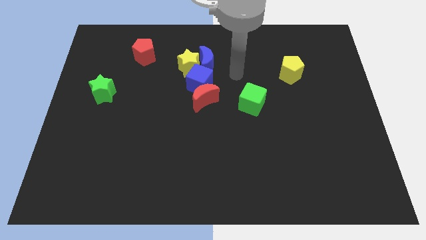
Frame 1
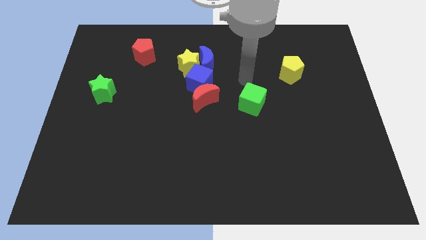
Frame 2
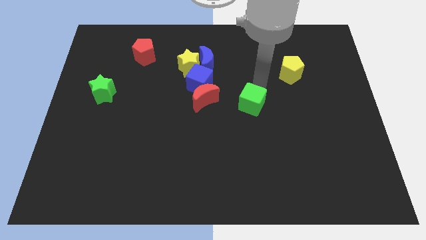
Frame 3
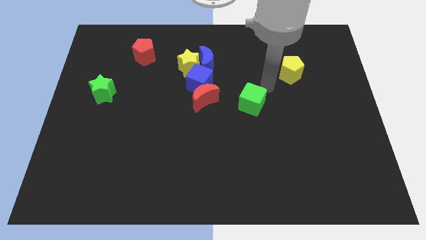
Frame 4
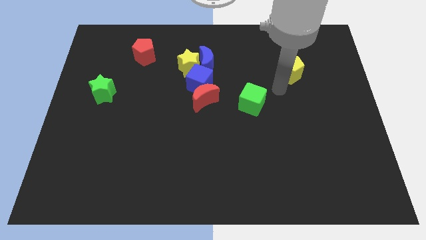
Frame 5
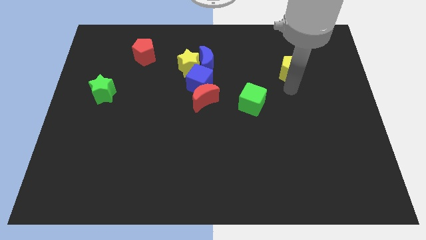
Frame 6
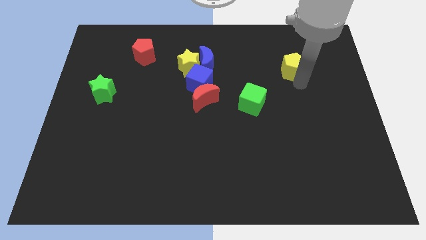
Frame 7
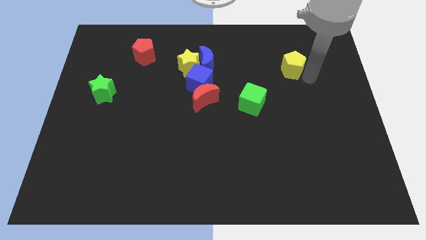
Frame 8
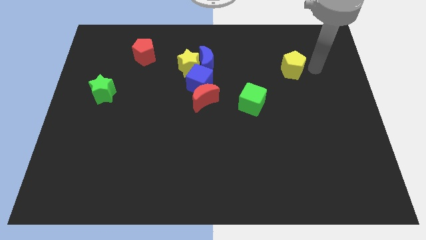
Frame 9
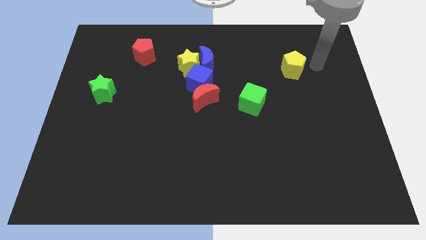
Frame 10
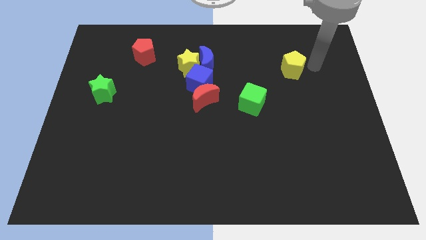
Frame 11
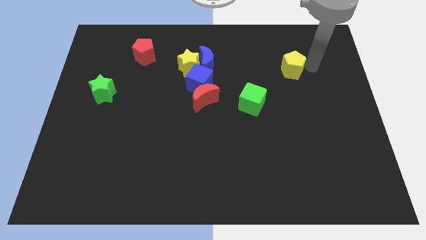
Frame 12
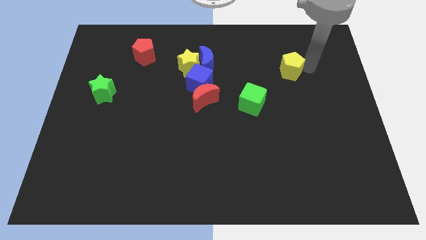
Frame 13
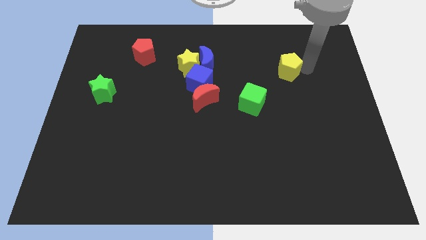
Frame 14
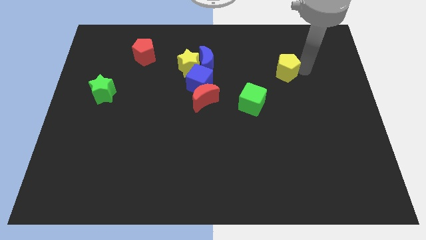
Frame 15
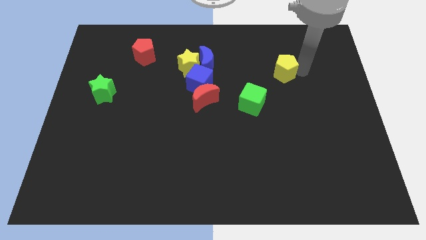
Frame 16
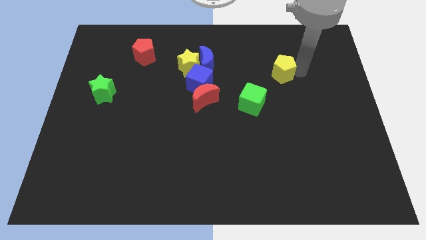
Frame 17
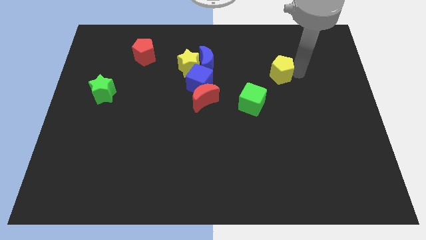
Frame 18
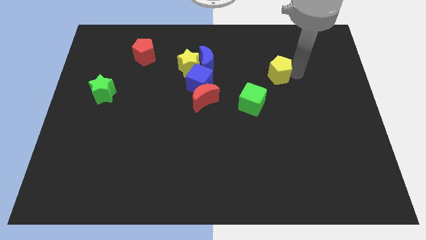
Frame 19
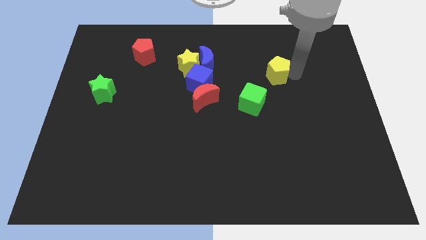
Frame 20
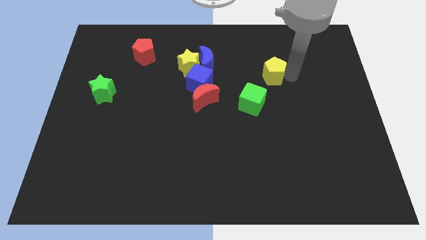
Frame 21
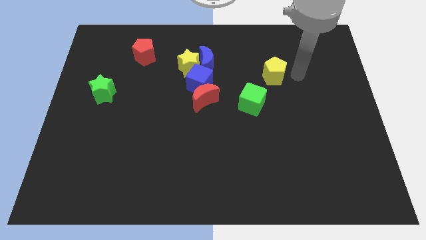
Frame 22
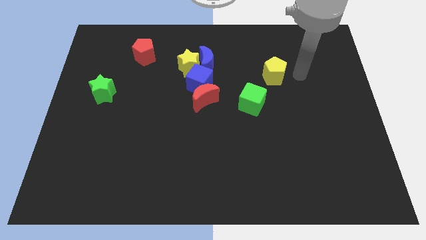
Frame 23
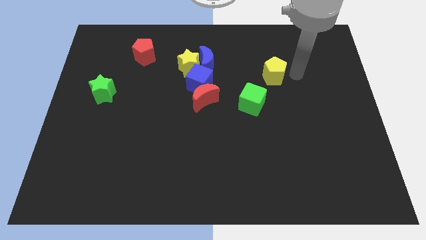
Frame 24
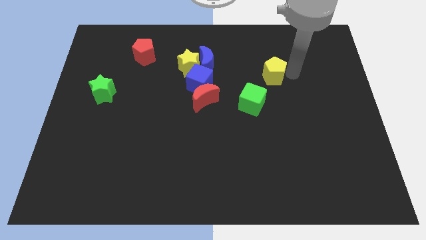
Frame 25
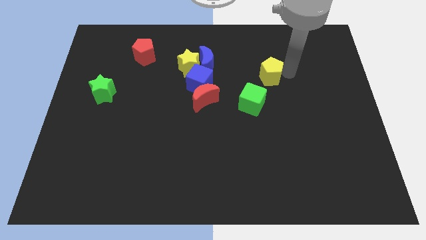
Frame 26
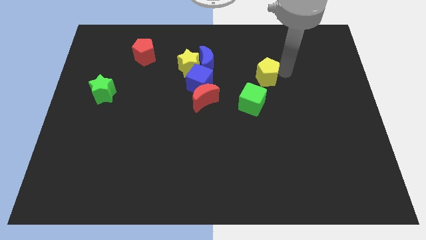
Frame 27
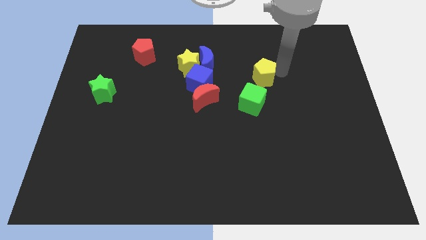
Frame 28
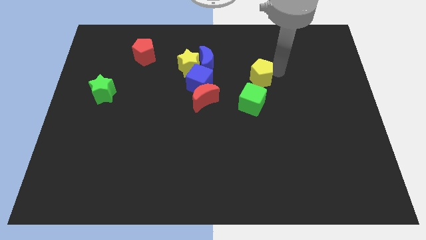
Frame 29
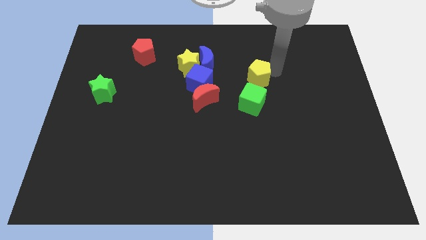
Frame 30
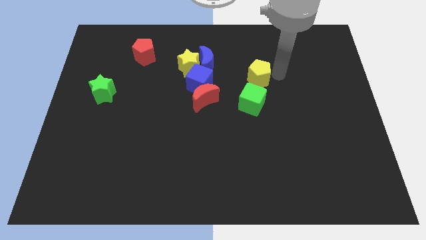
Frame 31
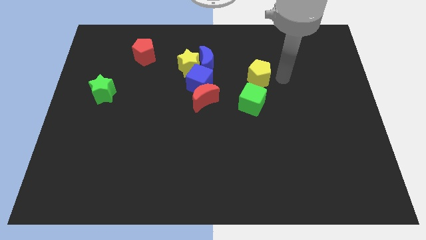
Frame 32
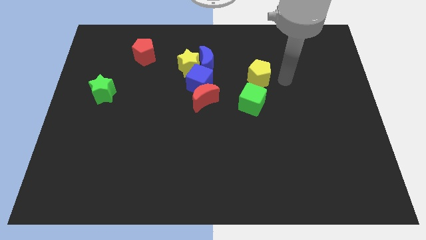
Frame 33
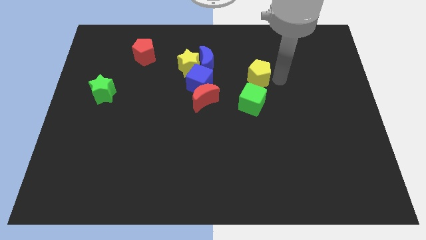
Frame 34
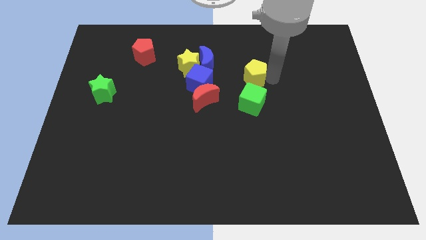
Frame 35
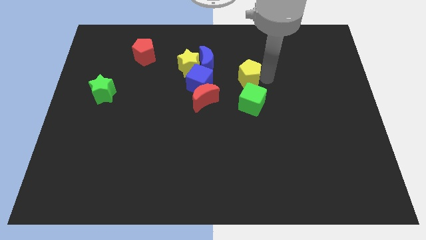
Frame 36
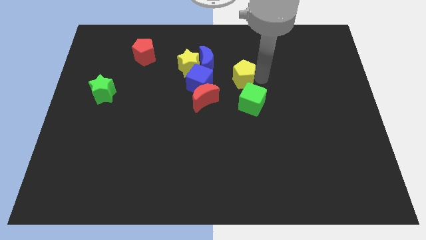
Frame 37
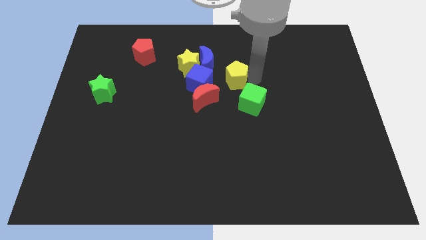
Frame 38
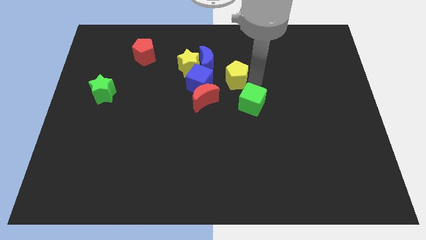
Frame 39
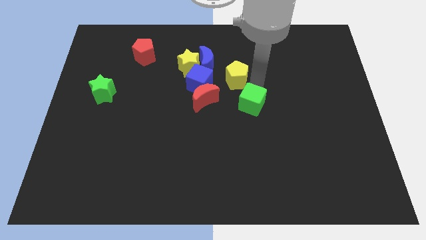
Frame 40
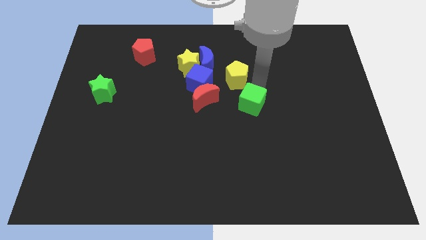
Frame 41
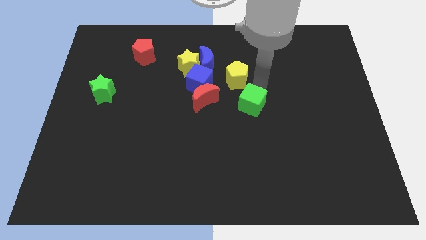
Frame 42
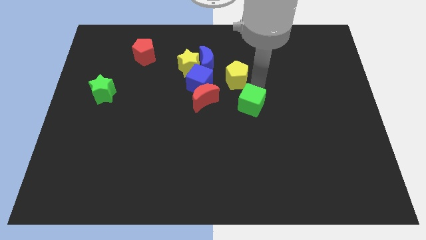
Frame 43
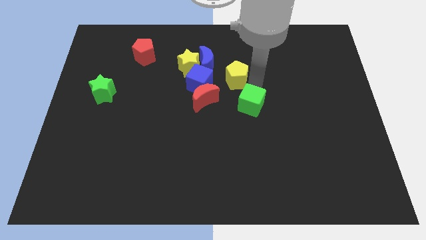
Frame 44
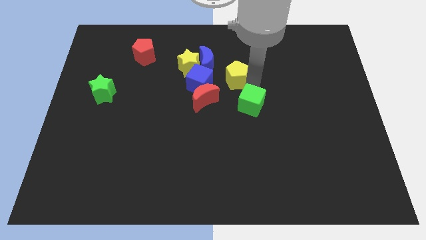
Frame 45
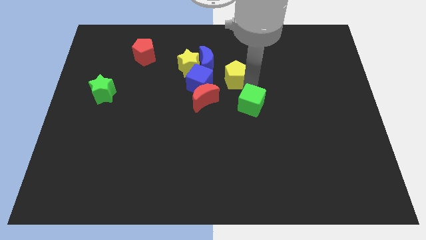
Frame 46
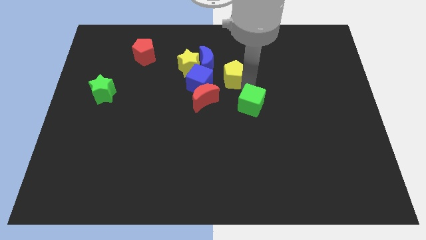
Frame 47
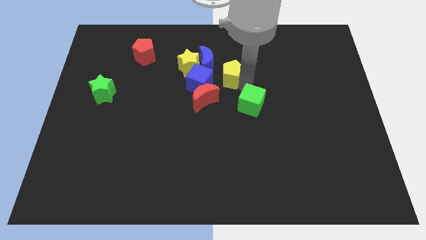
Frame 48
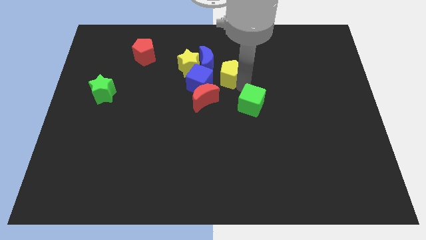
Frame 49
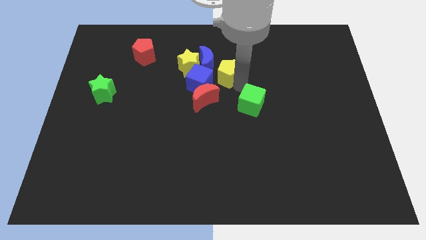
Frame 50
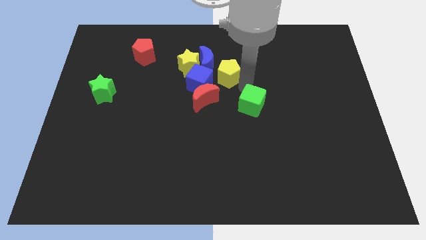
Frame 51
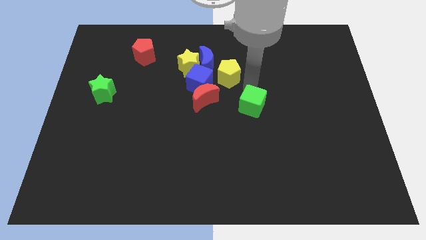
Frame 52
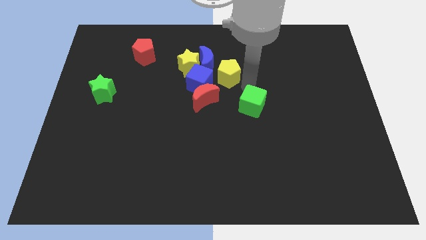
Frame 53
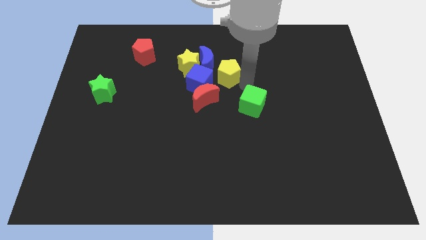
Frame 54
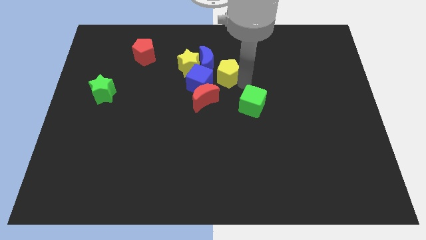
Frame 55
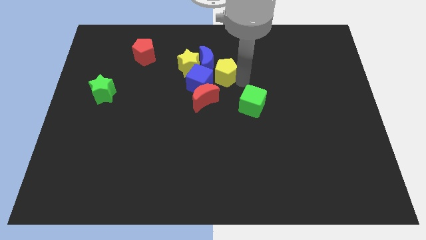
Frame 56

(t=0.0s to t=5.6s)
slide the yellow pentagon to the blue moon

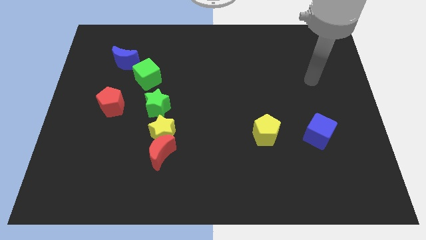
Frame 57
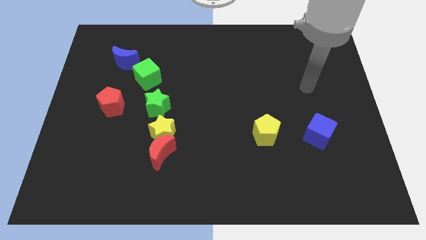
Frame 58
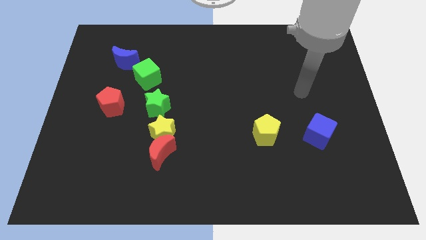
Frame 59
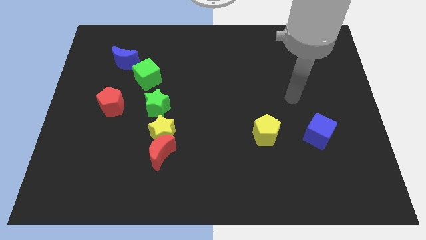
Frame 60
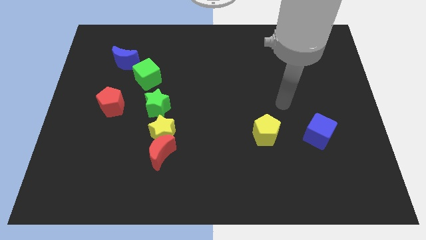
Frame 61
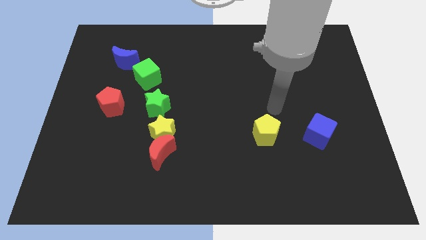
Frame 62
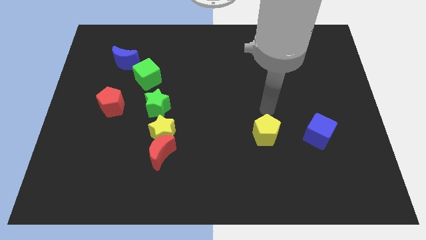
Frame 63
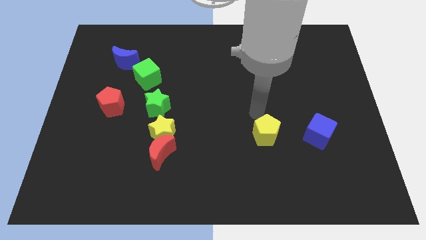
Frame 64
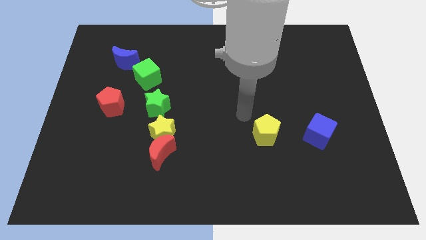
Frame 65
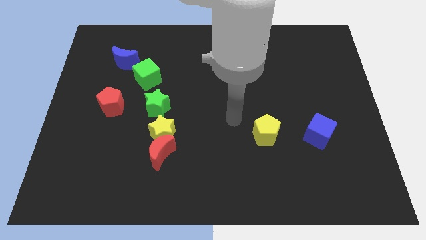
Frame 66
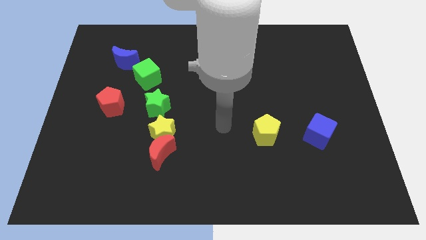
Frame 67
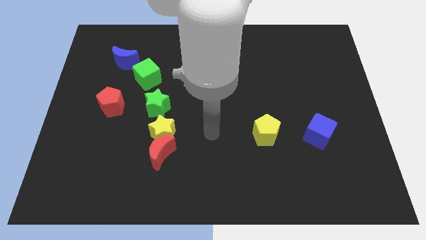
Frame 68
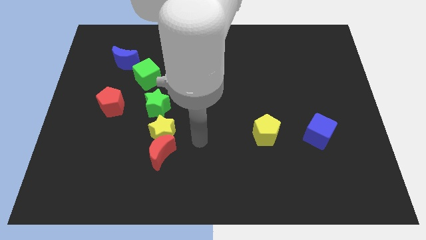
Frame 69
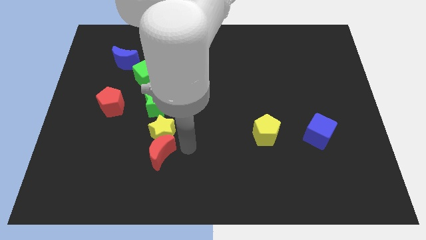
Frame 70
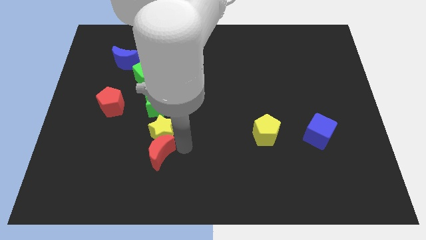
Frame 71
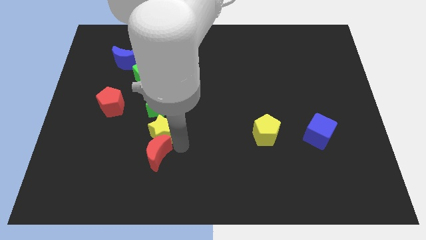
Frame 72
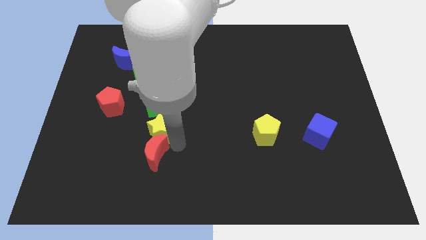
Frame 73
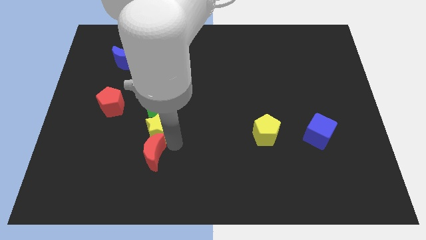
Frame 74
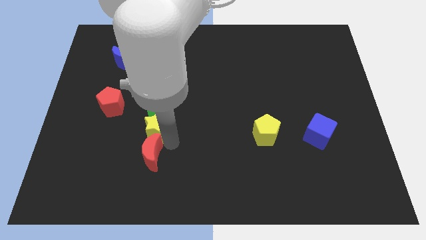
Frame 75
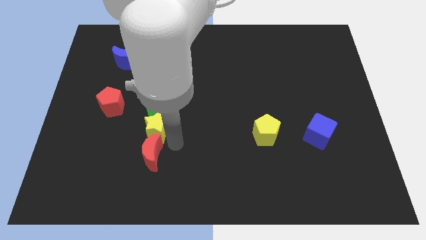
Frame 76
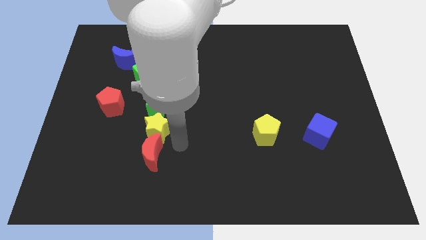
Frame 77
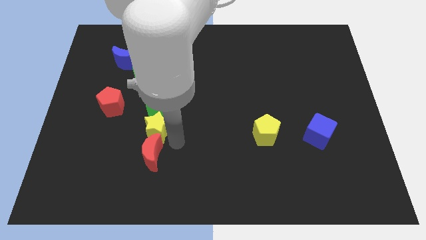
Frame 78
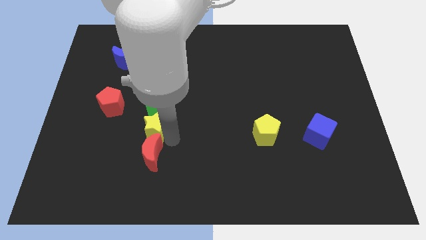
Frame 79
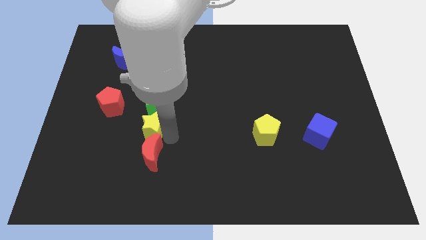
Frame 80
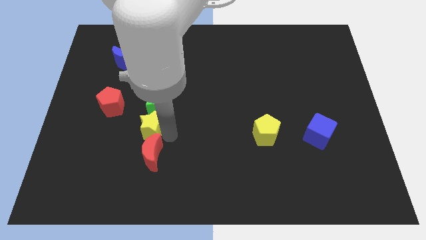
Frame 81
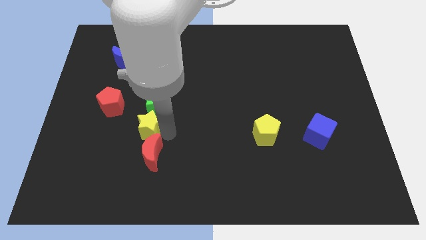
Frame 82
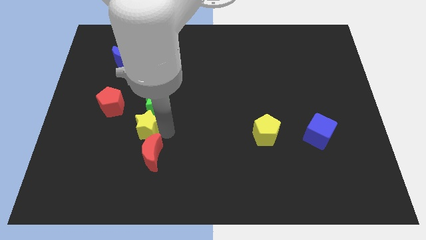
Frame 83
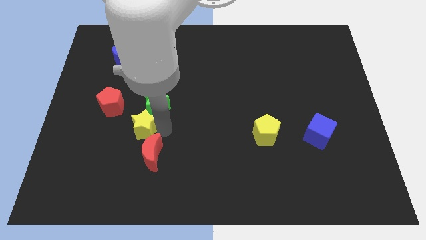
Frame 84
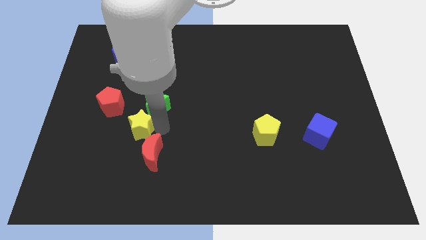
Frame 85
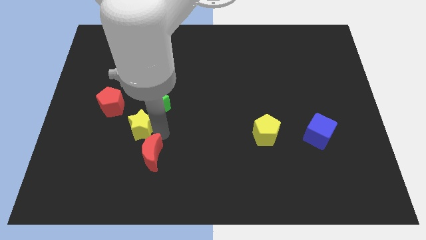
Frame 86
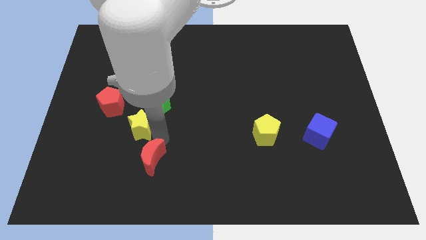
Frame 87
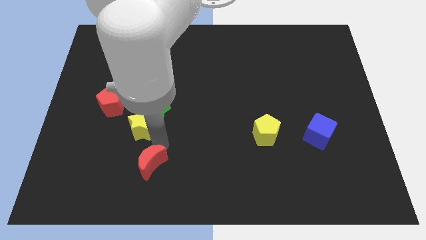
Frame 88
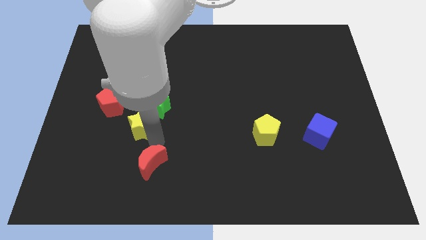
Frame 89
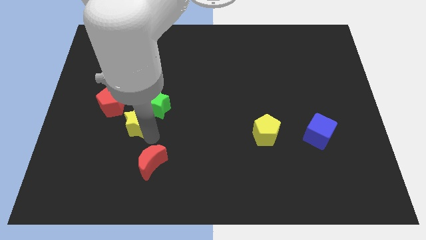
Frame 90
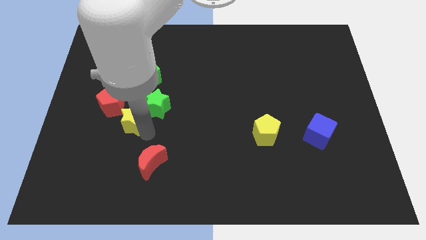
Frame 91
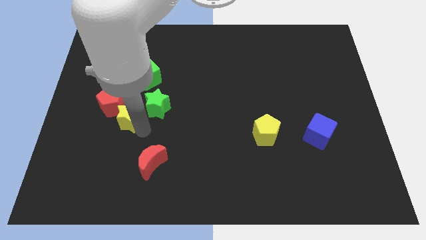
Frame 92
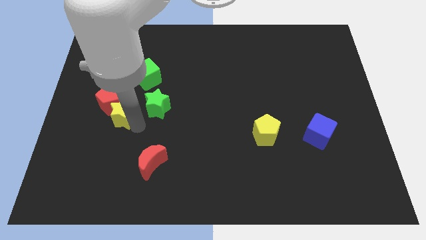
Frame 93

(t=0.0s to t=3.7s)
slide the yellow star close to the red pentagon
